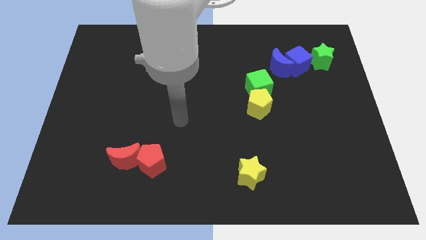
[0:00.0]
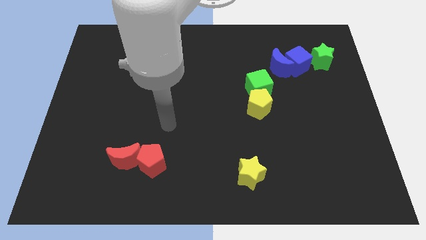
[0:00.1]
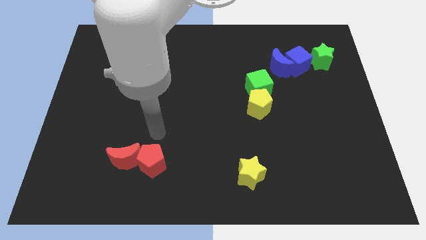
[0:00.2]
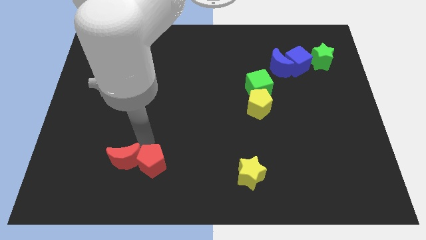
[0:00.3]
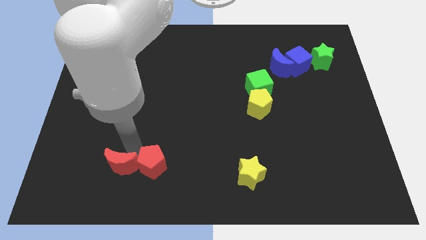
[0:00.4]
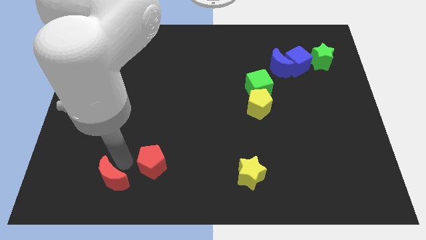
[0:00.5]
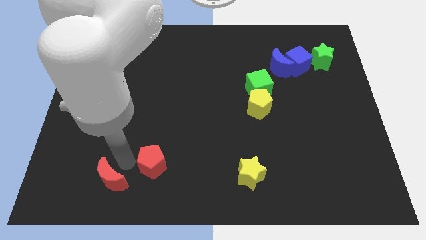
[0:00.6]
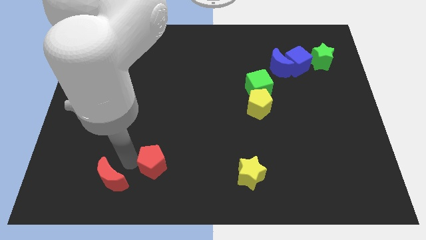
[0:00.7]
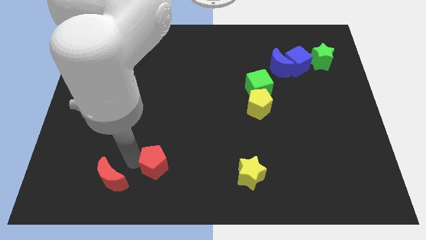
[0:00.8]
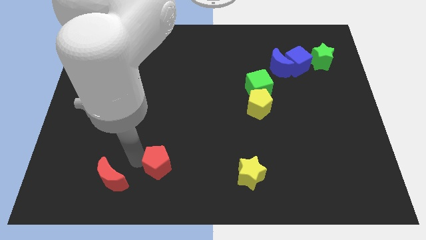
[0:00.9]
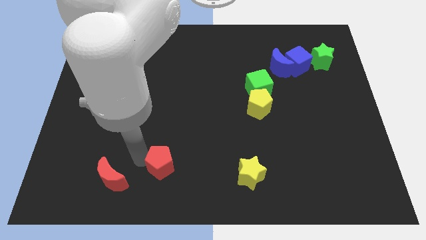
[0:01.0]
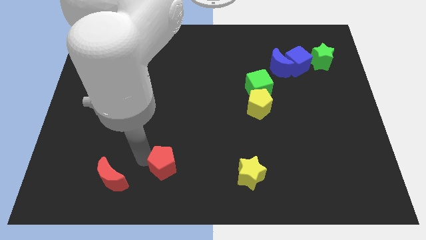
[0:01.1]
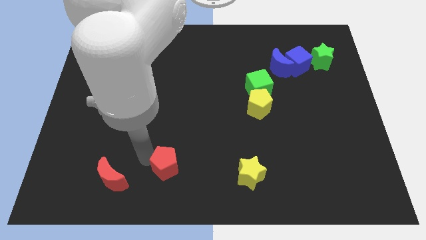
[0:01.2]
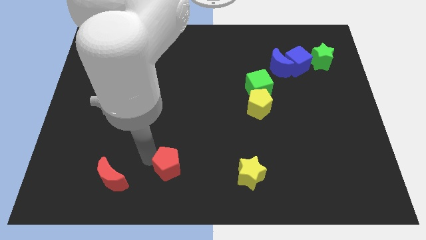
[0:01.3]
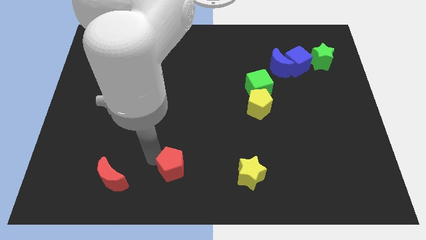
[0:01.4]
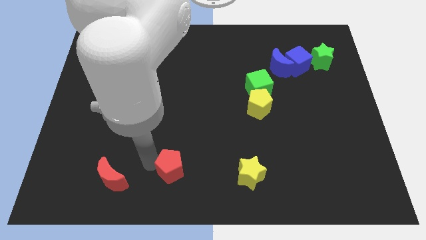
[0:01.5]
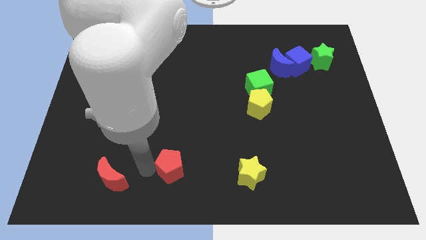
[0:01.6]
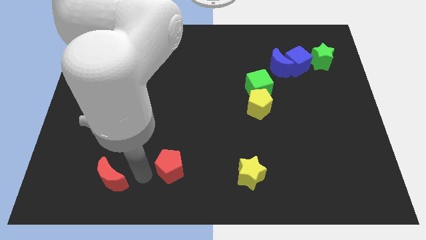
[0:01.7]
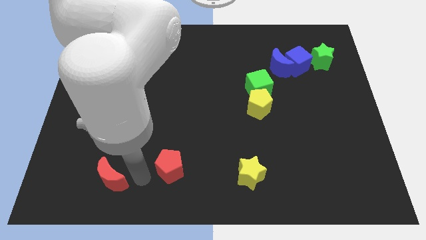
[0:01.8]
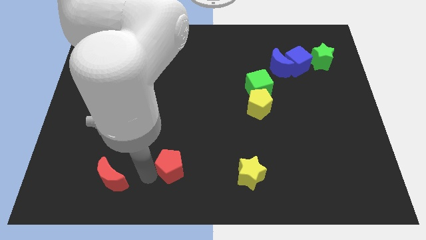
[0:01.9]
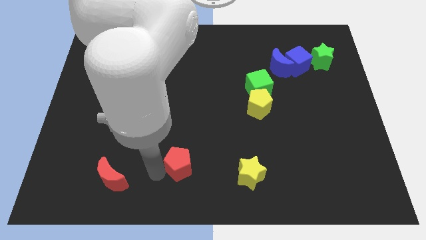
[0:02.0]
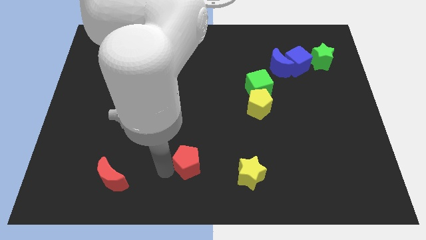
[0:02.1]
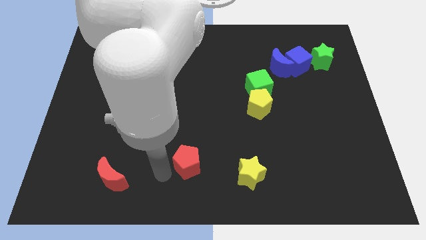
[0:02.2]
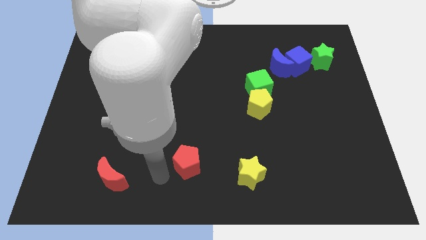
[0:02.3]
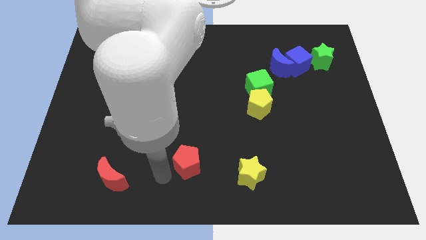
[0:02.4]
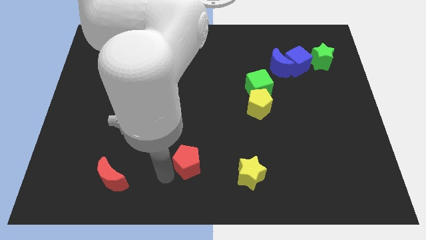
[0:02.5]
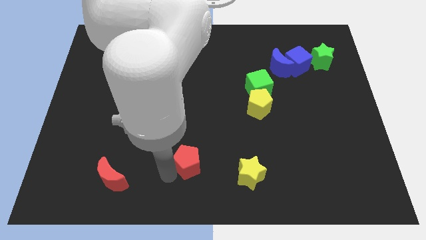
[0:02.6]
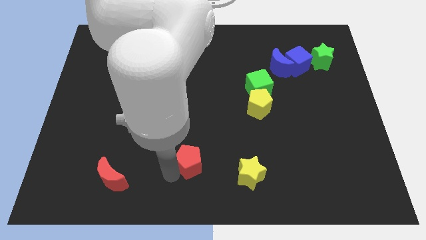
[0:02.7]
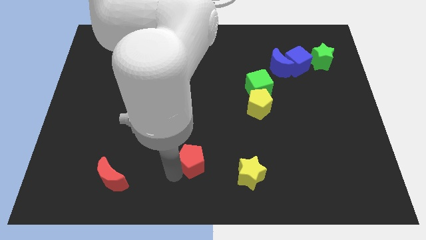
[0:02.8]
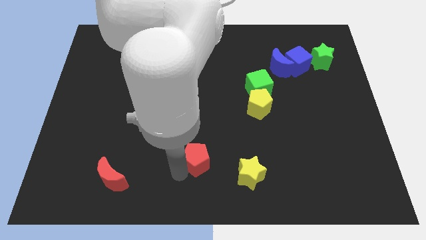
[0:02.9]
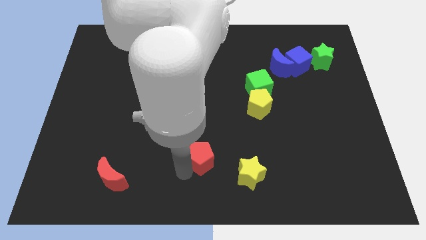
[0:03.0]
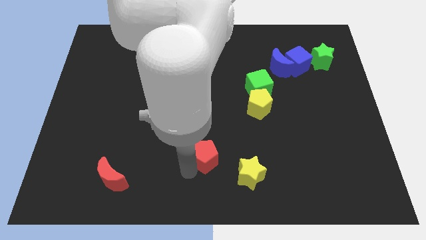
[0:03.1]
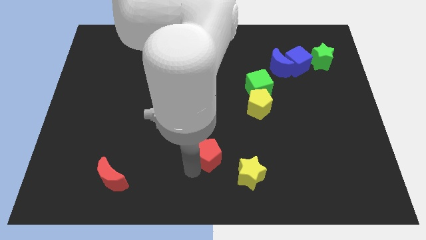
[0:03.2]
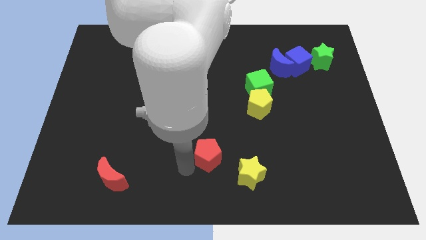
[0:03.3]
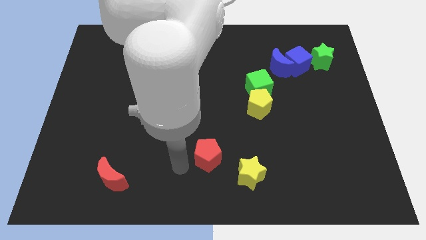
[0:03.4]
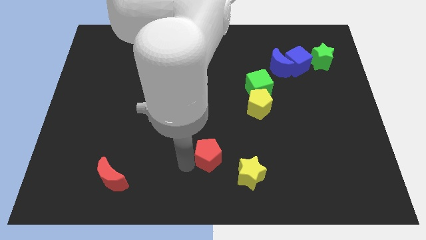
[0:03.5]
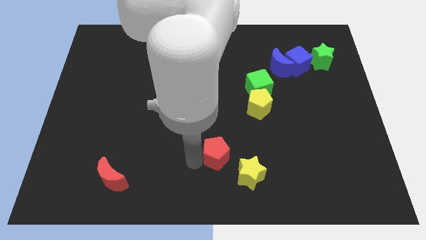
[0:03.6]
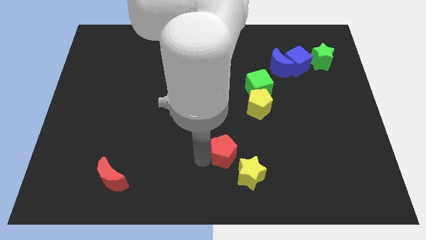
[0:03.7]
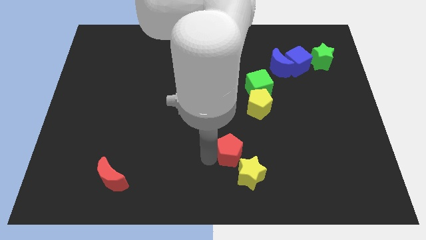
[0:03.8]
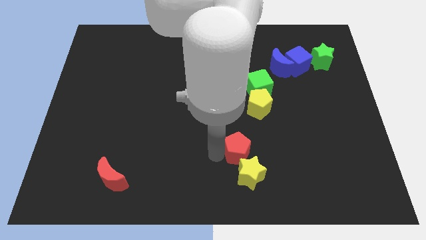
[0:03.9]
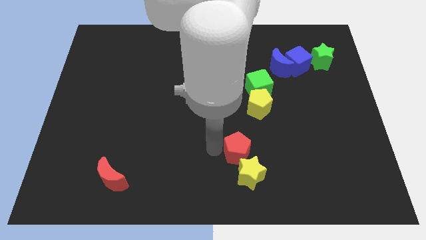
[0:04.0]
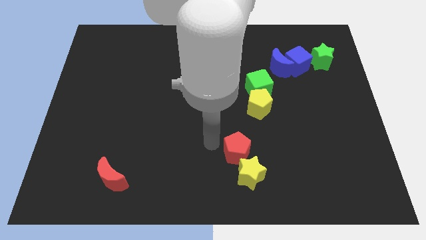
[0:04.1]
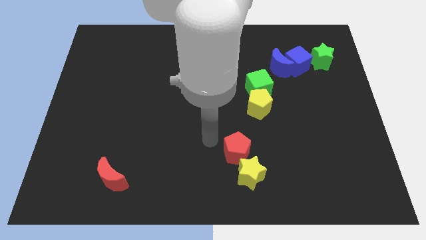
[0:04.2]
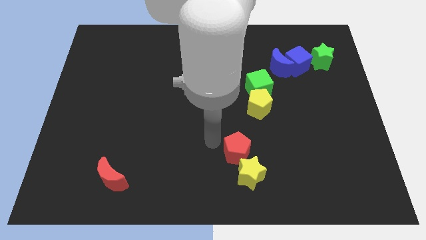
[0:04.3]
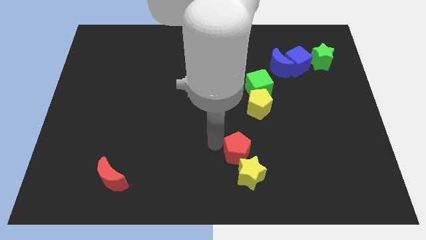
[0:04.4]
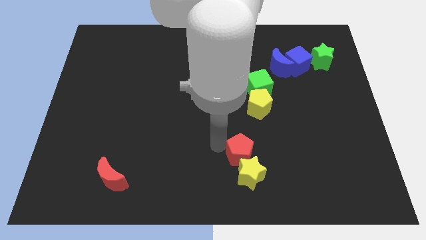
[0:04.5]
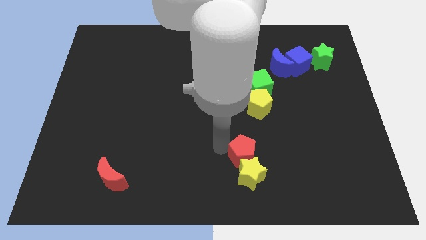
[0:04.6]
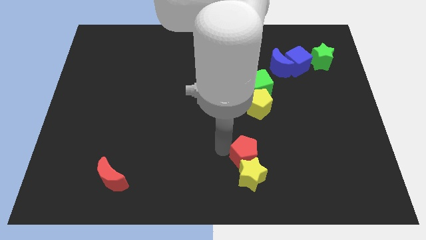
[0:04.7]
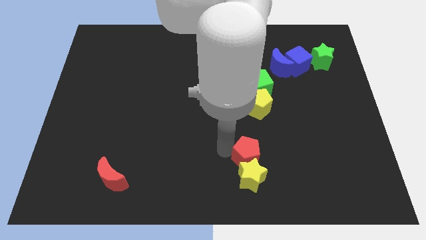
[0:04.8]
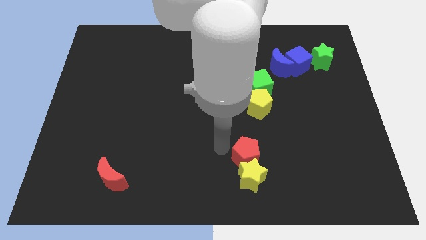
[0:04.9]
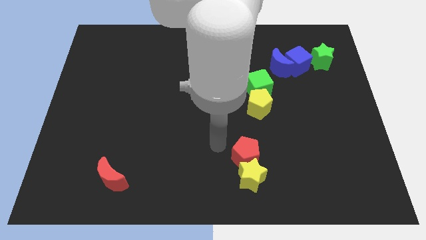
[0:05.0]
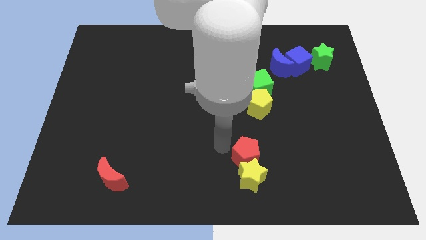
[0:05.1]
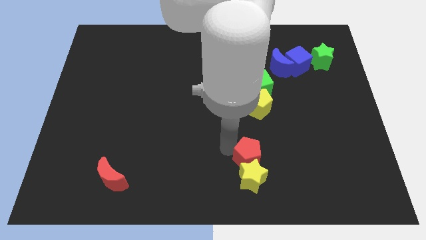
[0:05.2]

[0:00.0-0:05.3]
slide the red pentagon to the right

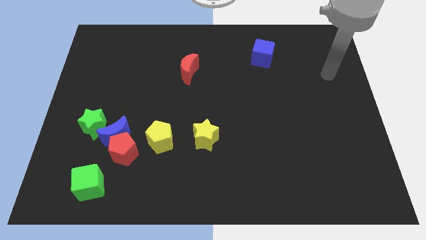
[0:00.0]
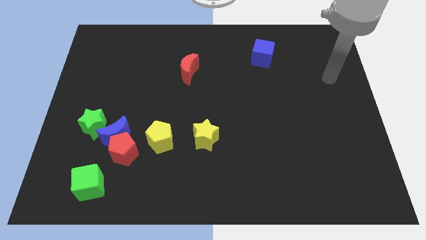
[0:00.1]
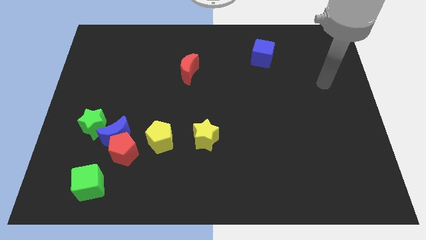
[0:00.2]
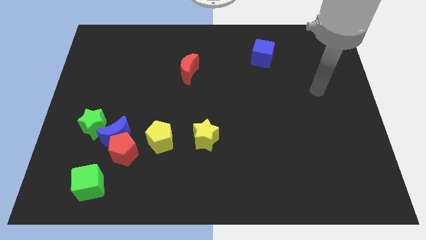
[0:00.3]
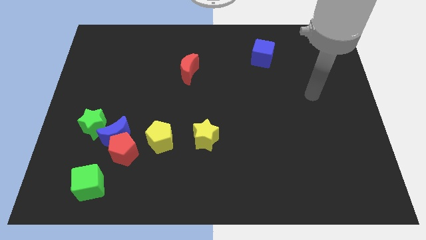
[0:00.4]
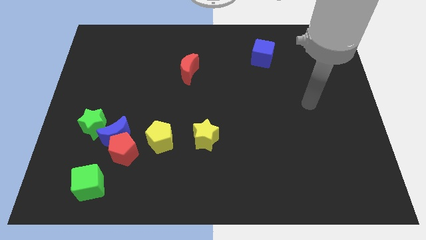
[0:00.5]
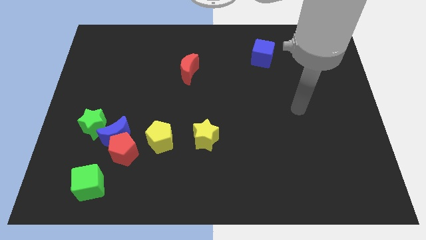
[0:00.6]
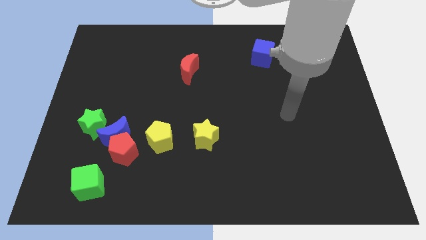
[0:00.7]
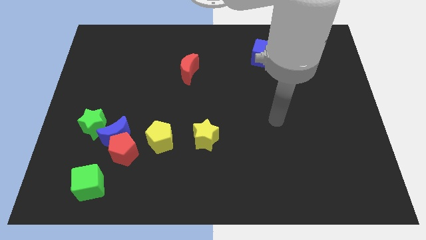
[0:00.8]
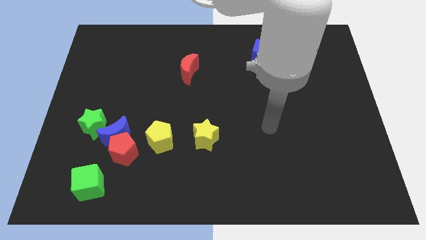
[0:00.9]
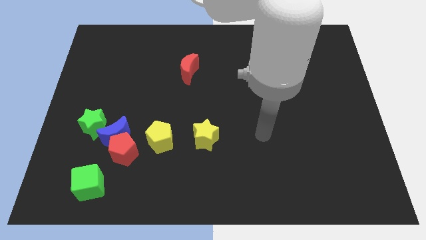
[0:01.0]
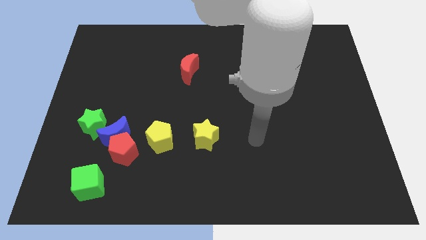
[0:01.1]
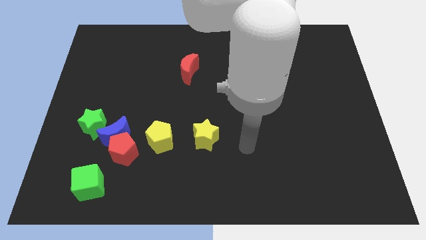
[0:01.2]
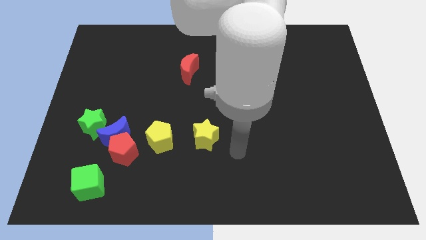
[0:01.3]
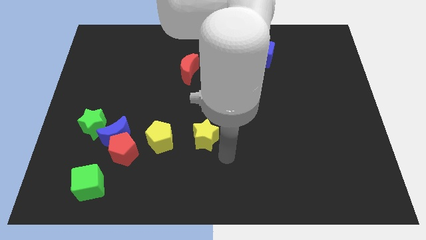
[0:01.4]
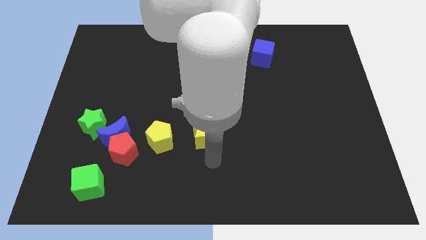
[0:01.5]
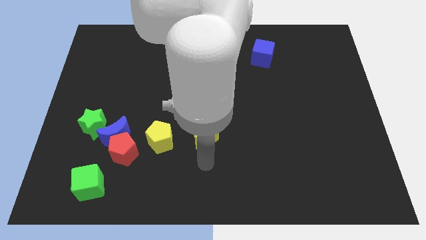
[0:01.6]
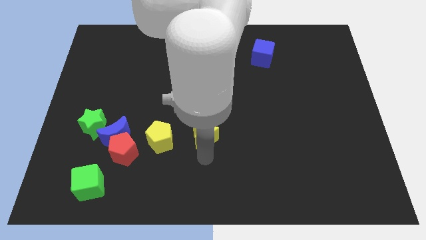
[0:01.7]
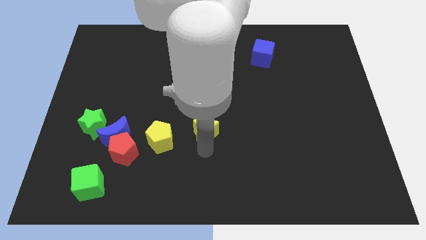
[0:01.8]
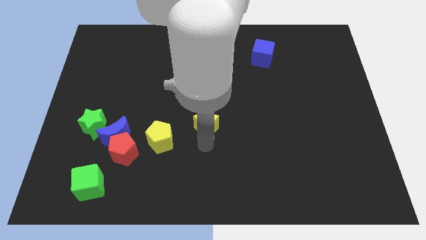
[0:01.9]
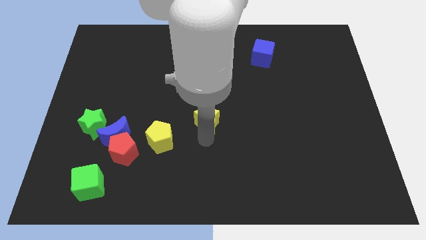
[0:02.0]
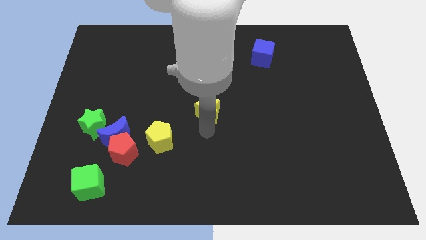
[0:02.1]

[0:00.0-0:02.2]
push the yellow star slightly upwards

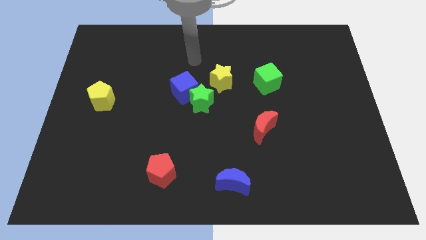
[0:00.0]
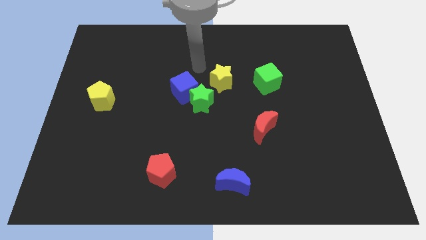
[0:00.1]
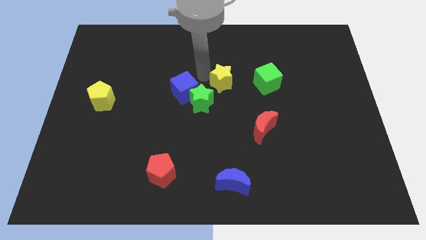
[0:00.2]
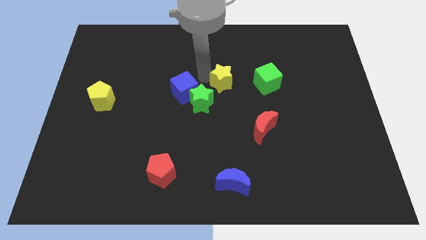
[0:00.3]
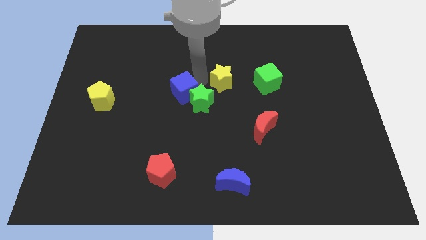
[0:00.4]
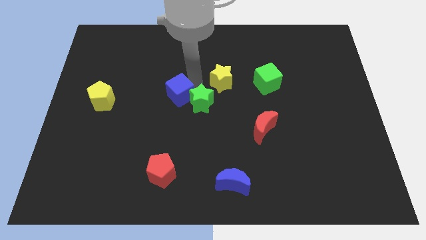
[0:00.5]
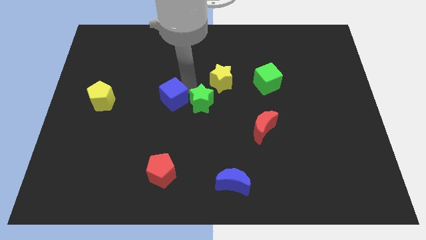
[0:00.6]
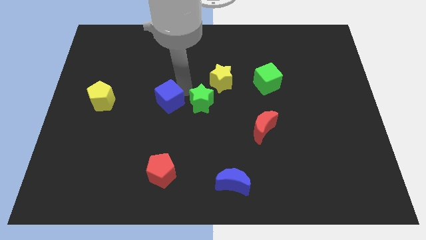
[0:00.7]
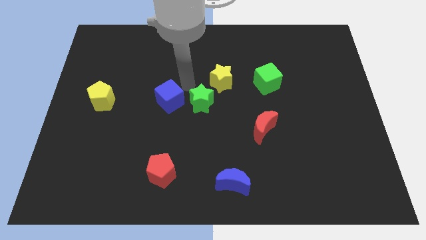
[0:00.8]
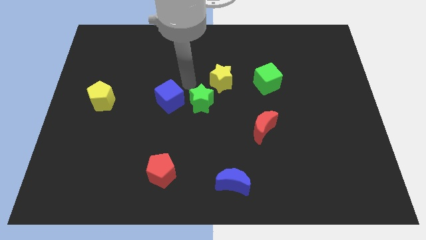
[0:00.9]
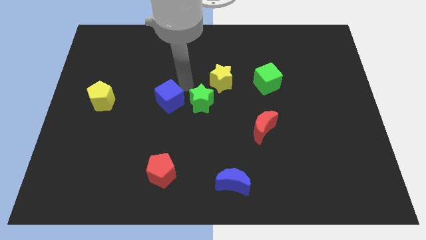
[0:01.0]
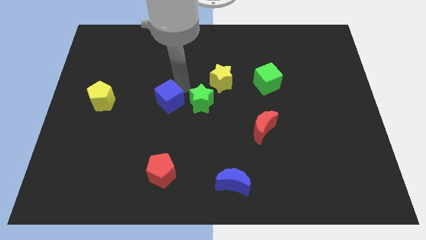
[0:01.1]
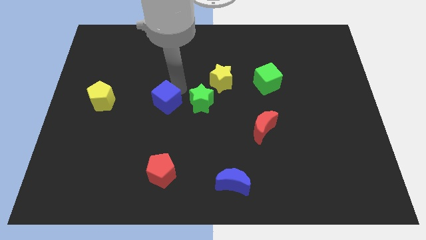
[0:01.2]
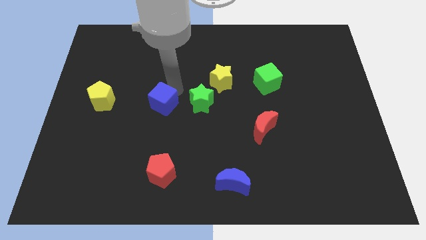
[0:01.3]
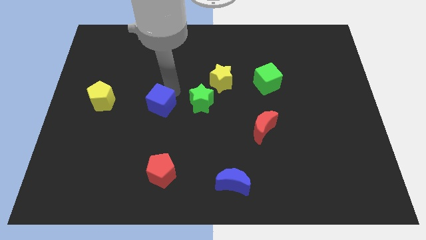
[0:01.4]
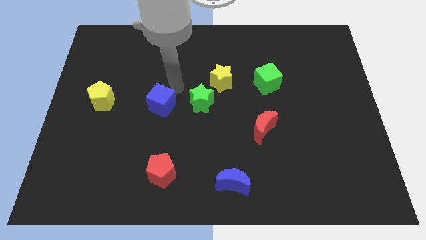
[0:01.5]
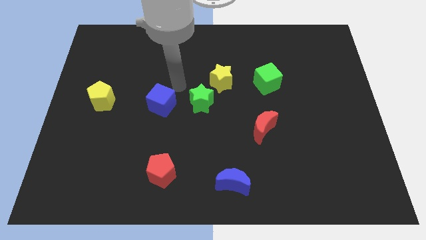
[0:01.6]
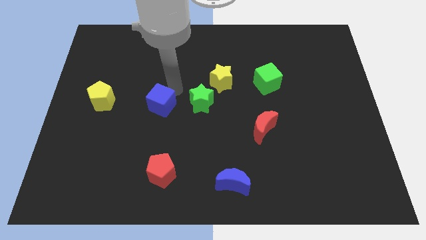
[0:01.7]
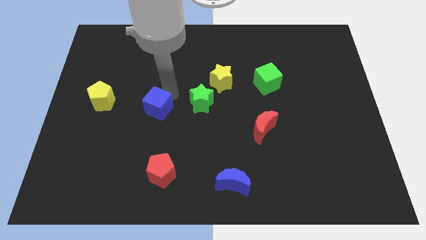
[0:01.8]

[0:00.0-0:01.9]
slide the blue cube downwards and to the left somewhat
